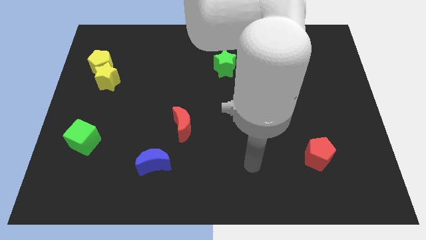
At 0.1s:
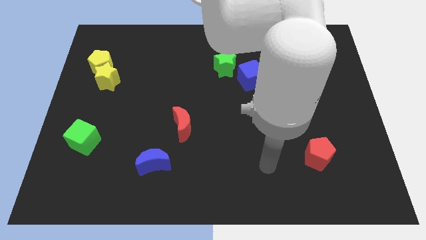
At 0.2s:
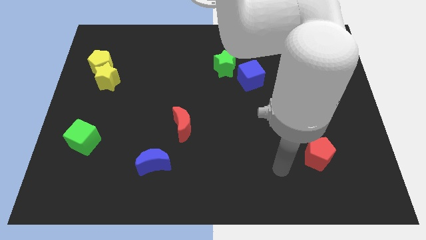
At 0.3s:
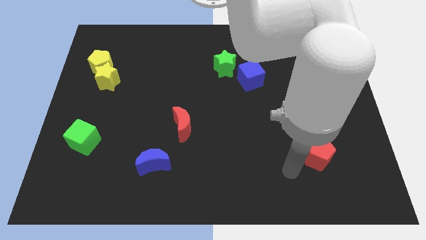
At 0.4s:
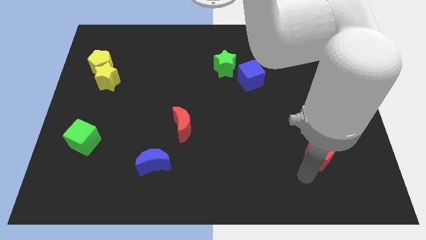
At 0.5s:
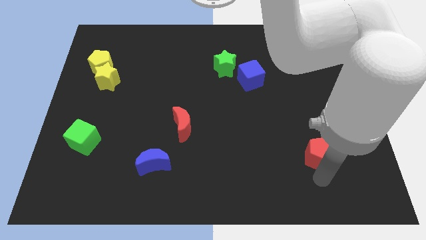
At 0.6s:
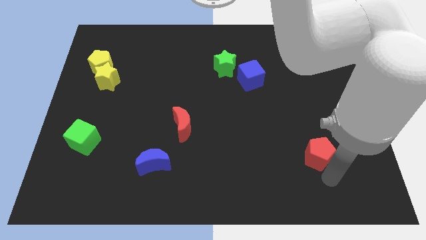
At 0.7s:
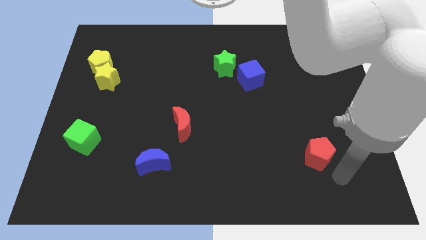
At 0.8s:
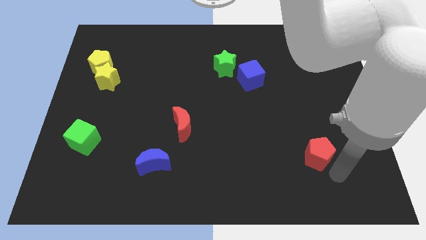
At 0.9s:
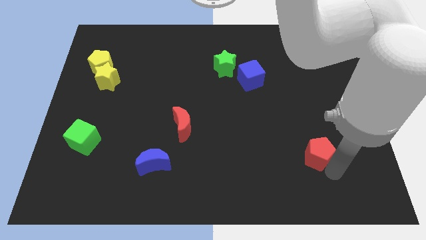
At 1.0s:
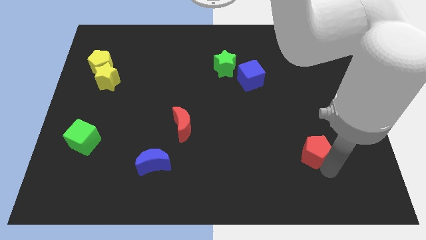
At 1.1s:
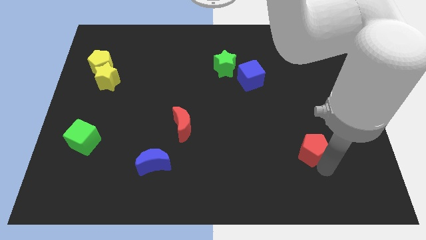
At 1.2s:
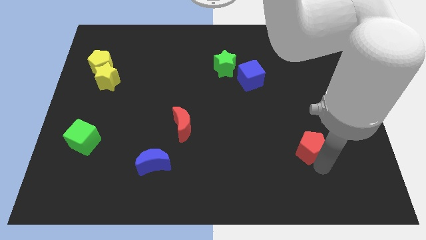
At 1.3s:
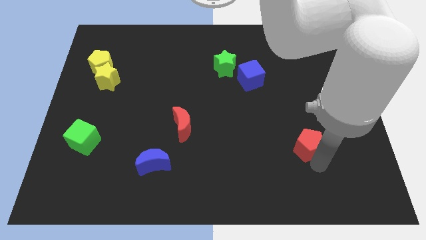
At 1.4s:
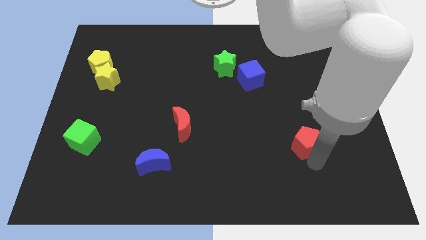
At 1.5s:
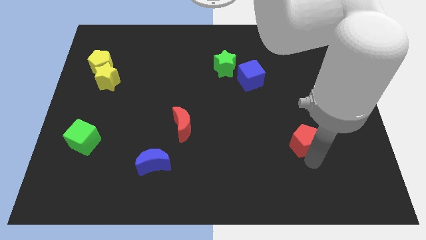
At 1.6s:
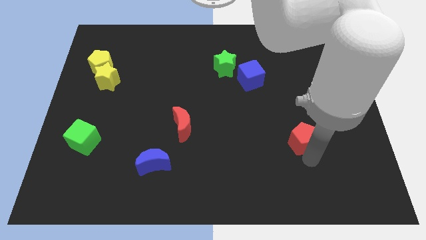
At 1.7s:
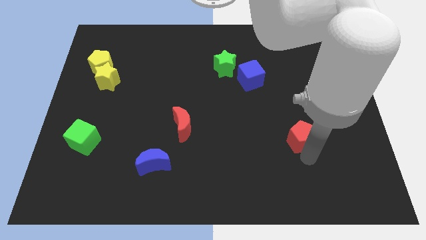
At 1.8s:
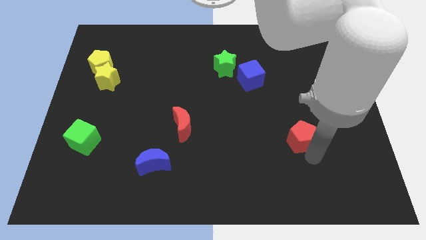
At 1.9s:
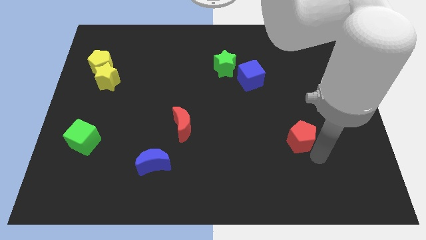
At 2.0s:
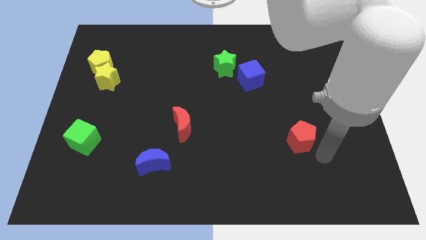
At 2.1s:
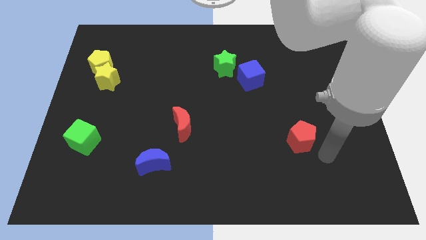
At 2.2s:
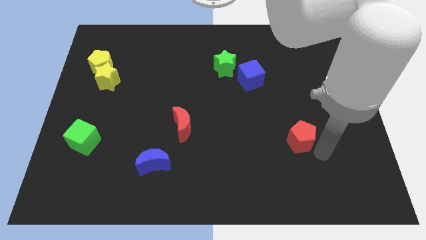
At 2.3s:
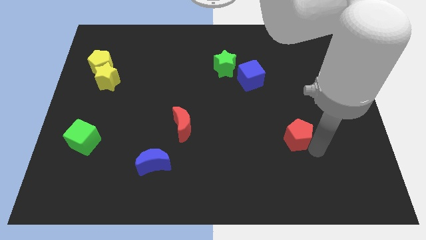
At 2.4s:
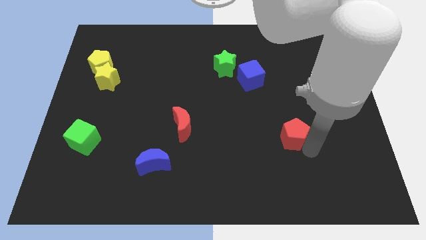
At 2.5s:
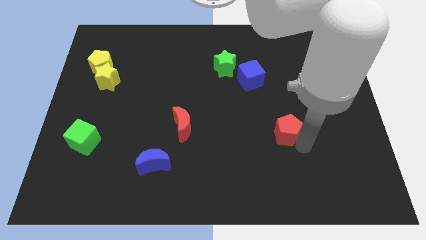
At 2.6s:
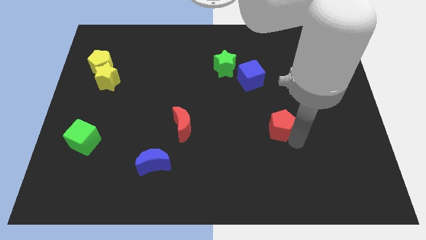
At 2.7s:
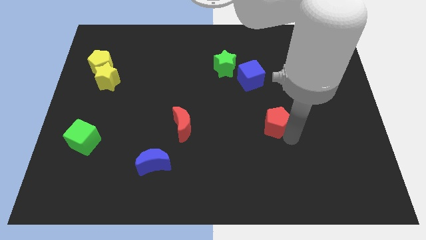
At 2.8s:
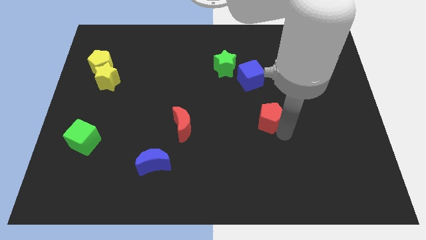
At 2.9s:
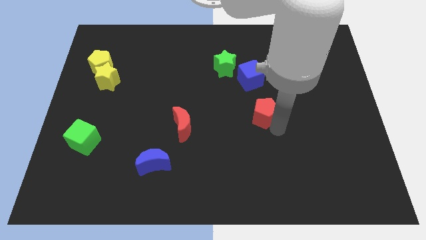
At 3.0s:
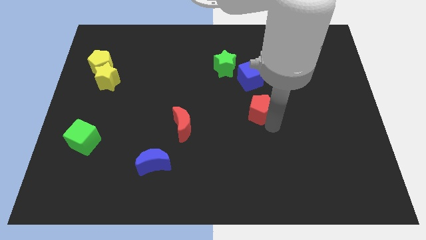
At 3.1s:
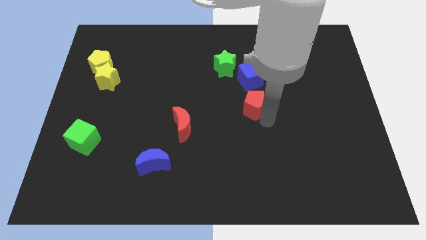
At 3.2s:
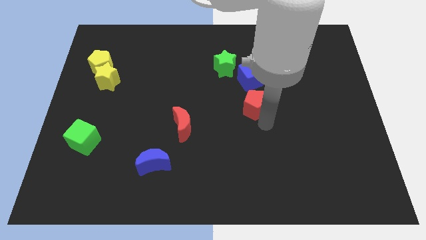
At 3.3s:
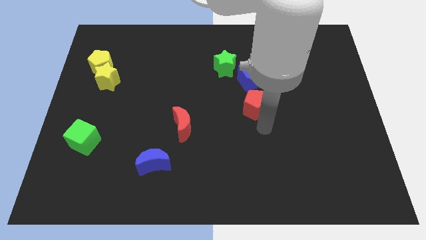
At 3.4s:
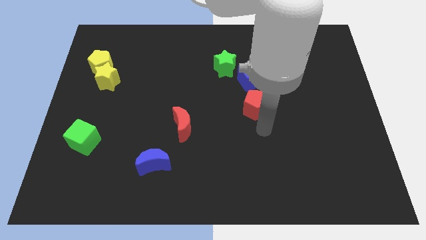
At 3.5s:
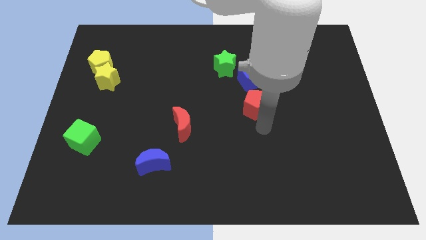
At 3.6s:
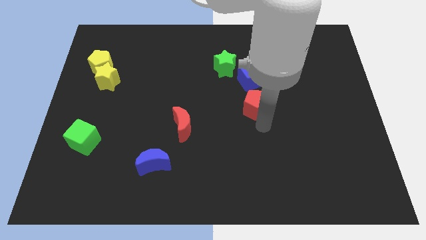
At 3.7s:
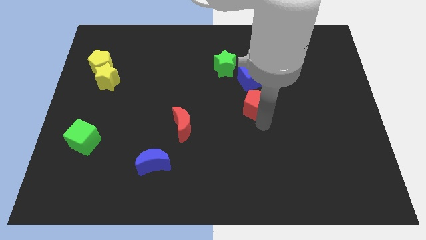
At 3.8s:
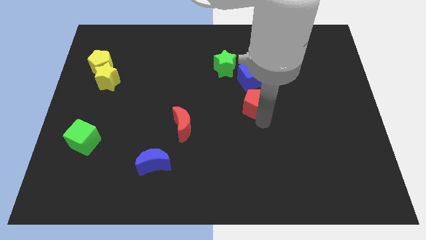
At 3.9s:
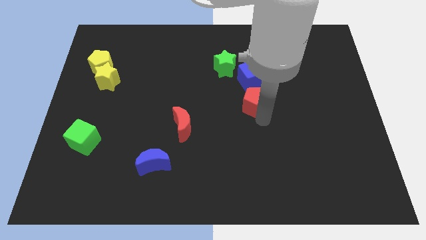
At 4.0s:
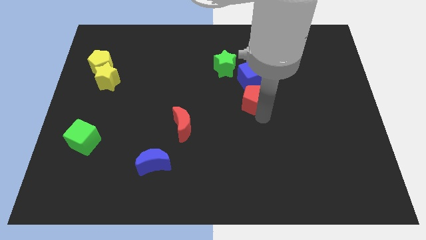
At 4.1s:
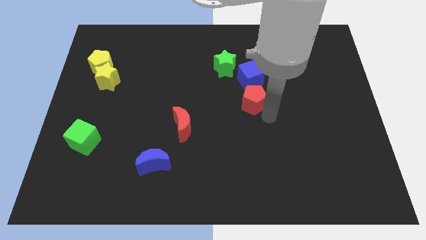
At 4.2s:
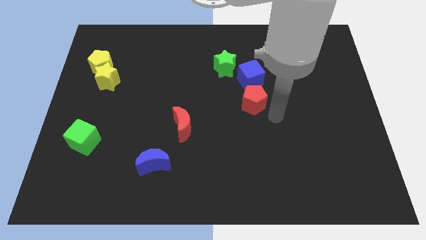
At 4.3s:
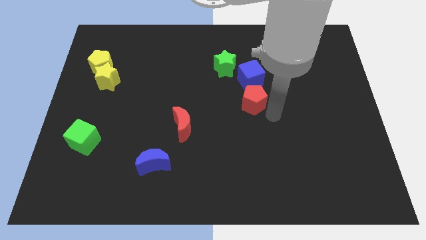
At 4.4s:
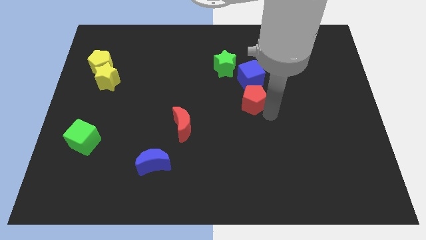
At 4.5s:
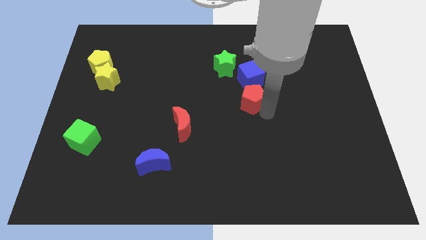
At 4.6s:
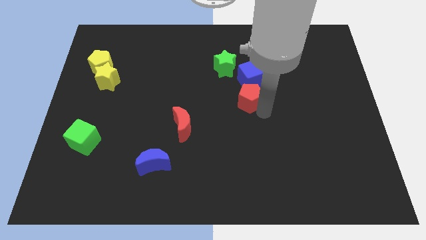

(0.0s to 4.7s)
slide the red pentagon diagonally upwards and left

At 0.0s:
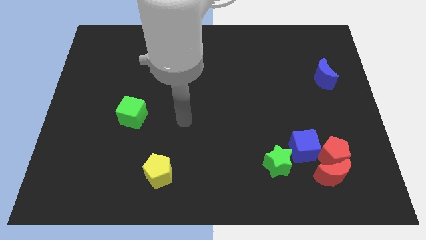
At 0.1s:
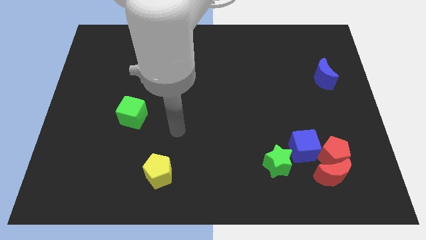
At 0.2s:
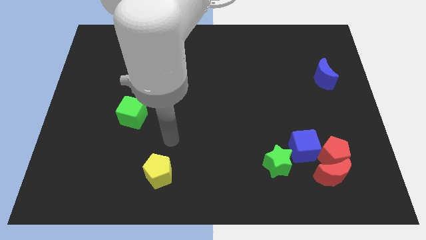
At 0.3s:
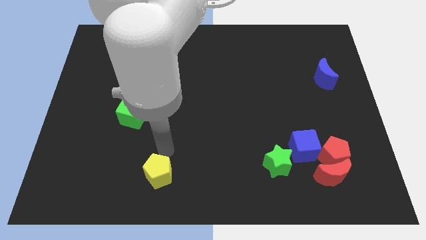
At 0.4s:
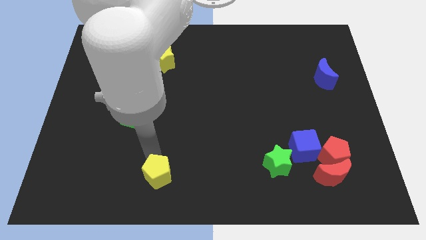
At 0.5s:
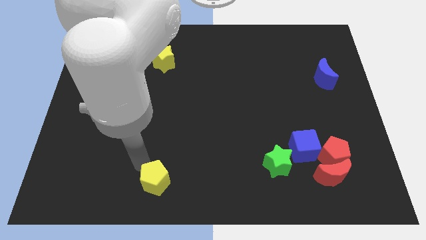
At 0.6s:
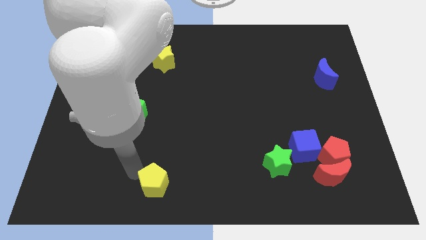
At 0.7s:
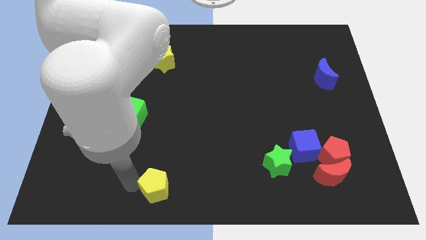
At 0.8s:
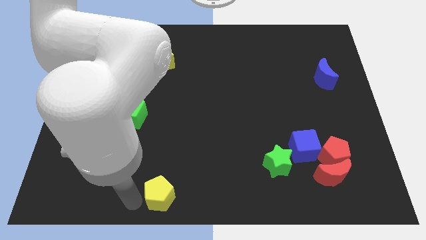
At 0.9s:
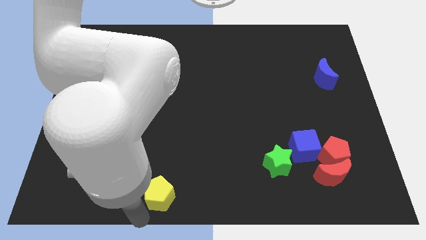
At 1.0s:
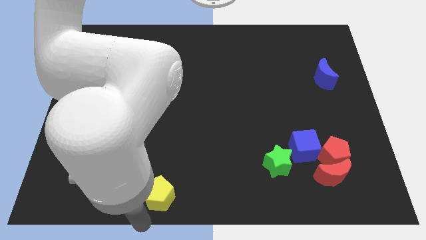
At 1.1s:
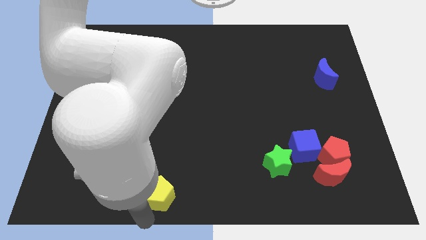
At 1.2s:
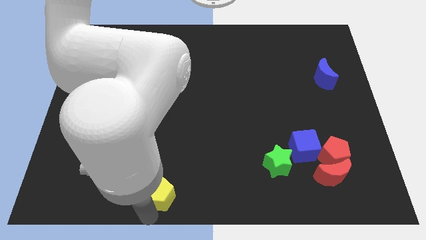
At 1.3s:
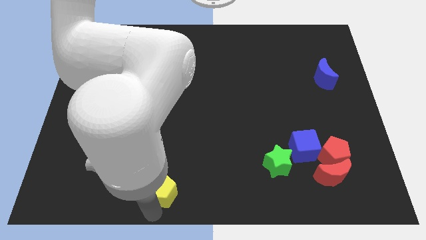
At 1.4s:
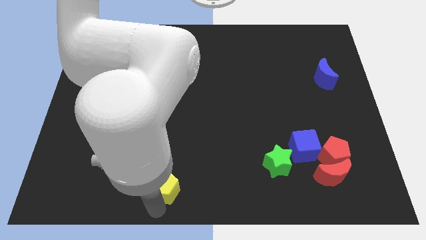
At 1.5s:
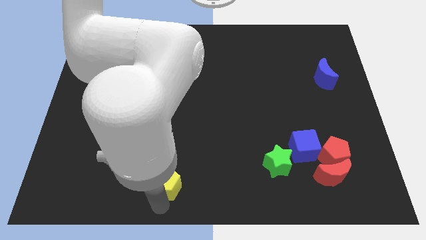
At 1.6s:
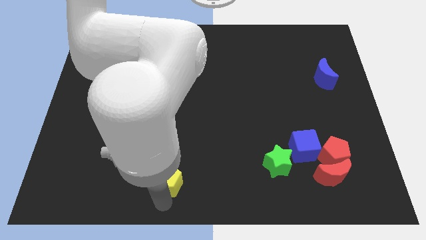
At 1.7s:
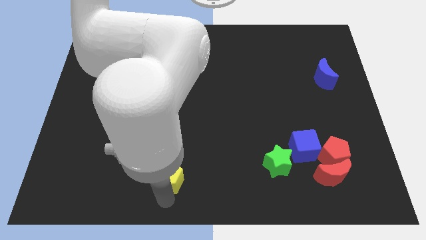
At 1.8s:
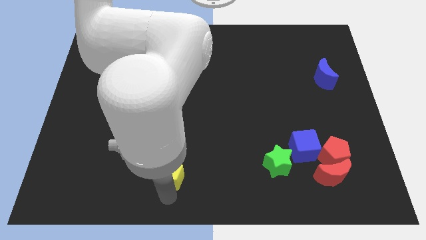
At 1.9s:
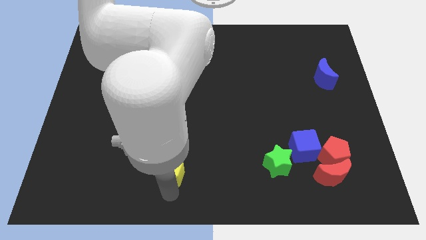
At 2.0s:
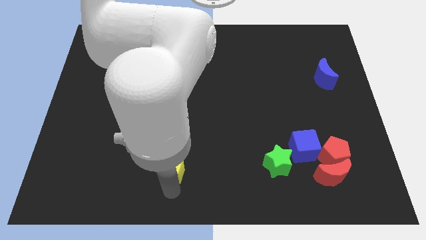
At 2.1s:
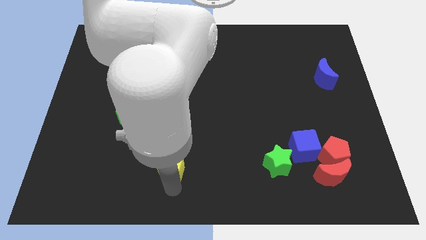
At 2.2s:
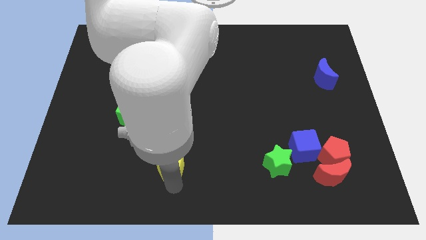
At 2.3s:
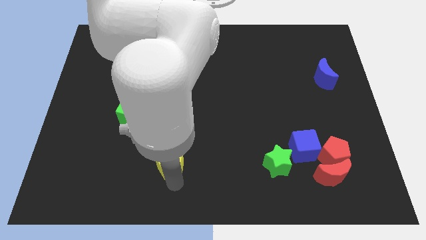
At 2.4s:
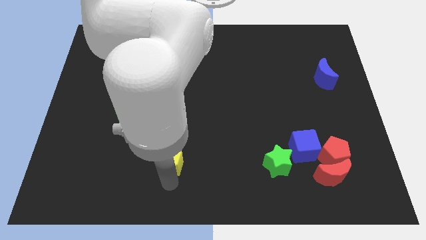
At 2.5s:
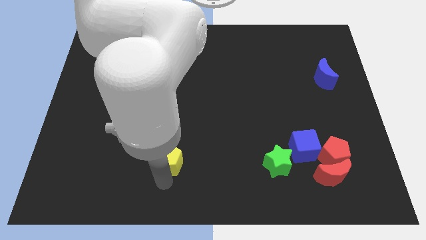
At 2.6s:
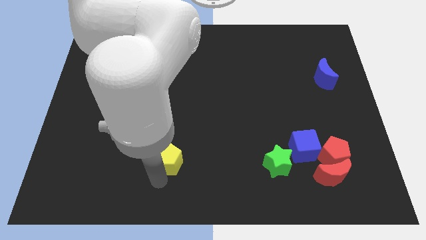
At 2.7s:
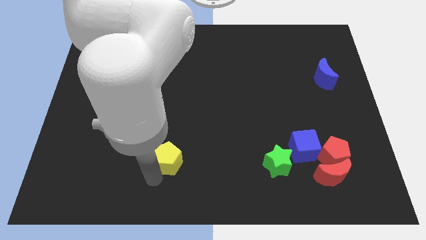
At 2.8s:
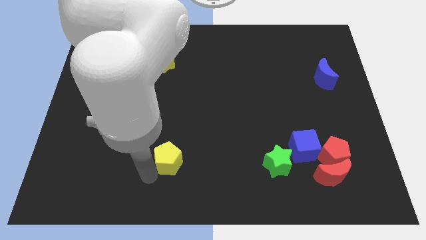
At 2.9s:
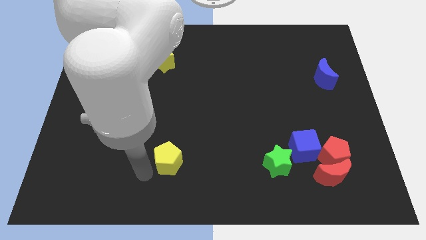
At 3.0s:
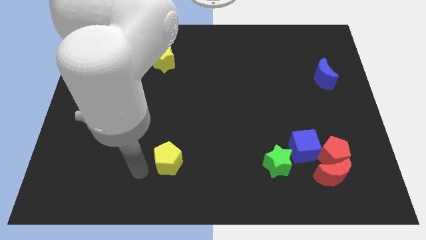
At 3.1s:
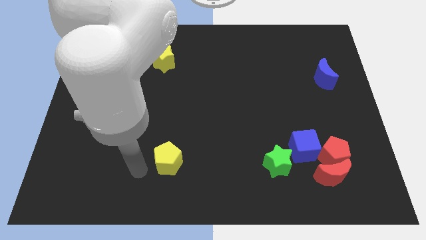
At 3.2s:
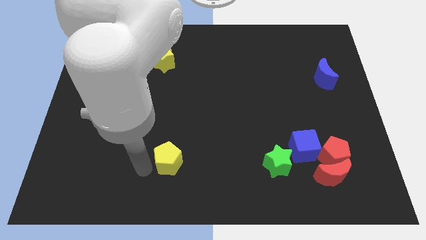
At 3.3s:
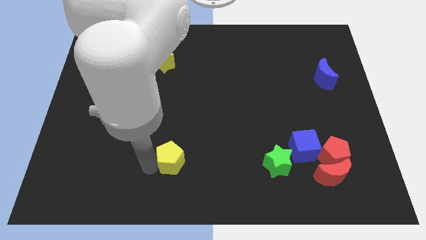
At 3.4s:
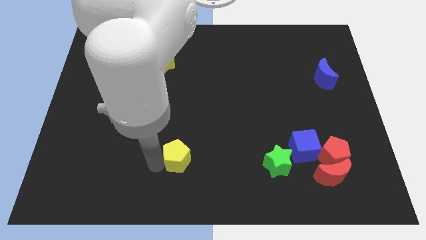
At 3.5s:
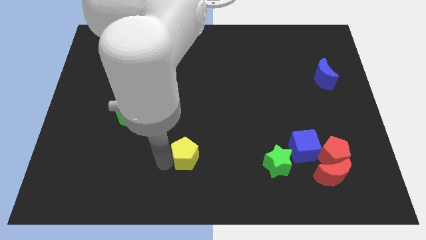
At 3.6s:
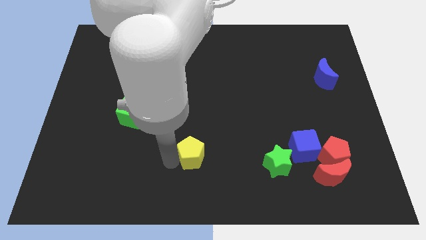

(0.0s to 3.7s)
slide the yellow pentagon diagonally up and to the right slightly
